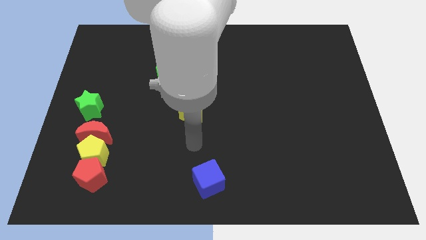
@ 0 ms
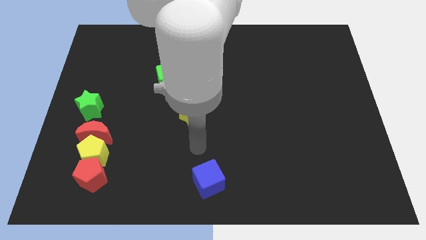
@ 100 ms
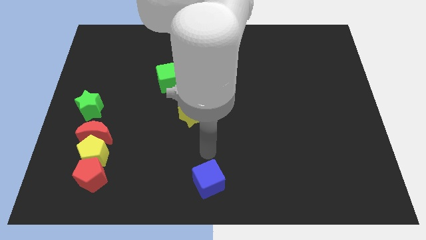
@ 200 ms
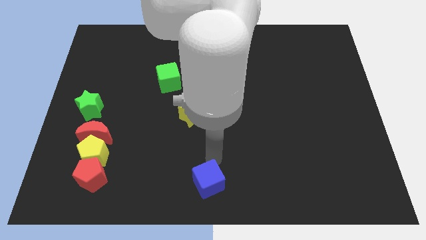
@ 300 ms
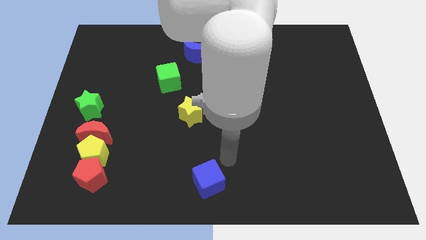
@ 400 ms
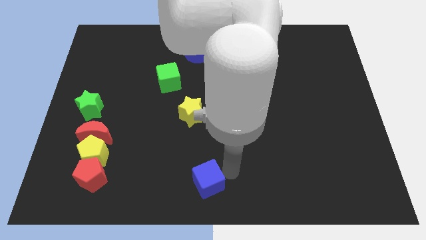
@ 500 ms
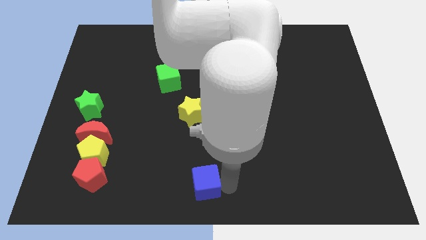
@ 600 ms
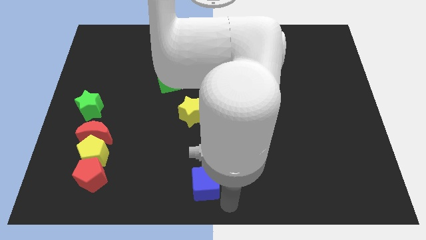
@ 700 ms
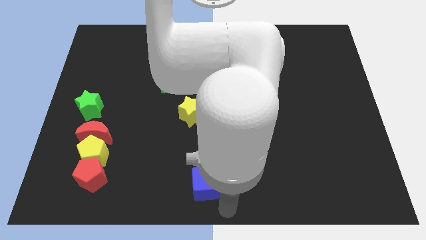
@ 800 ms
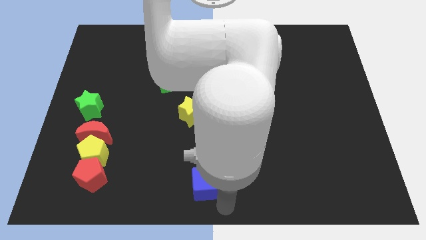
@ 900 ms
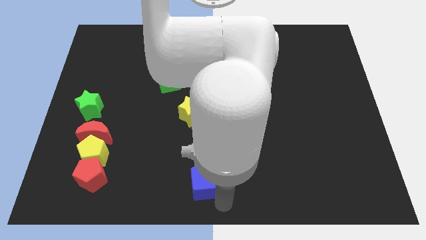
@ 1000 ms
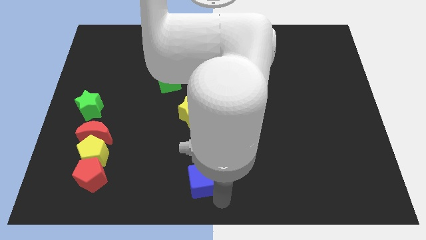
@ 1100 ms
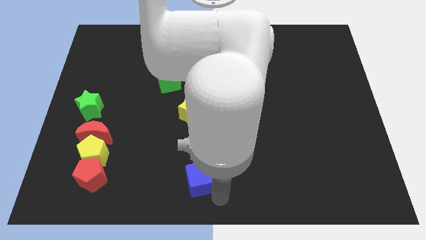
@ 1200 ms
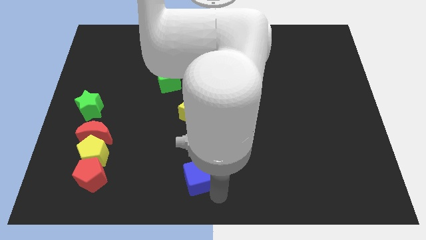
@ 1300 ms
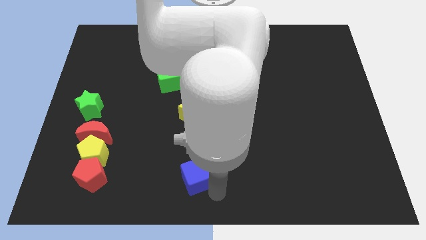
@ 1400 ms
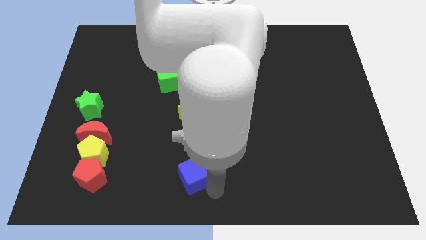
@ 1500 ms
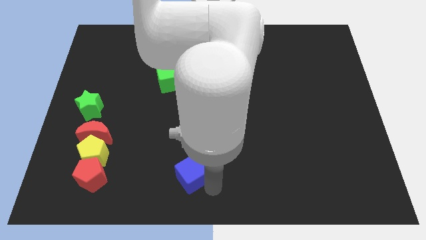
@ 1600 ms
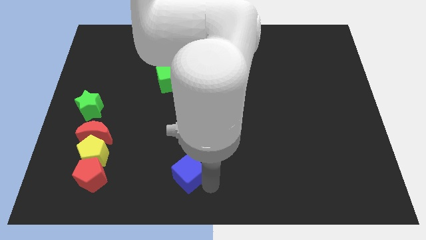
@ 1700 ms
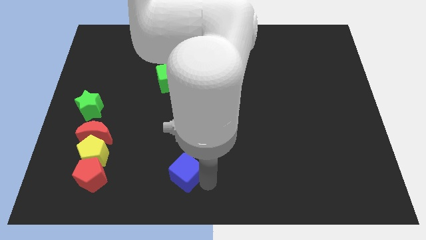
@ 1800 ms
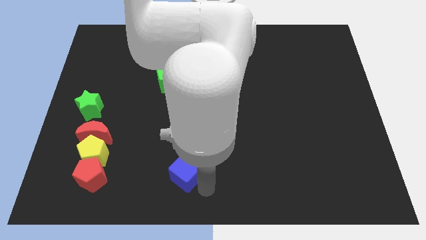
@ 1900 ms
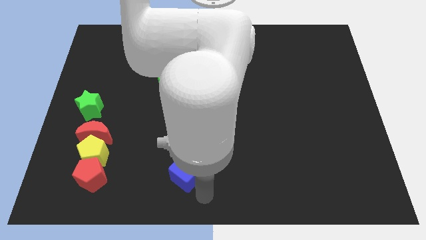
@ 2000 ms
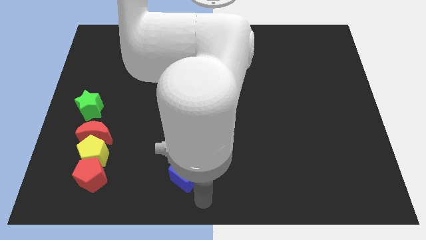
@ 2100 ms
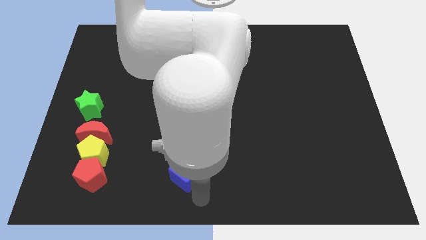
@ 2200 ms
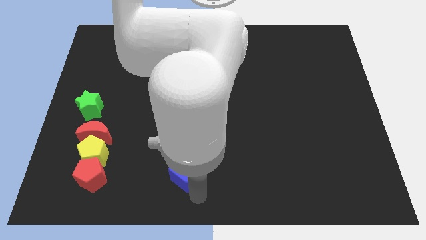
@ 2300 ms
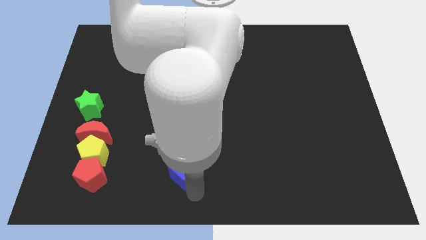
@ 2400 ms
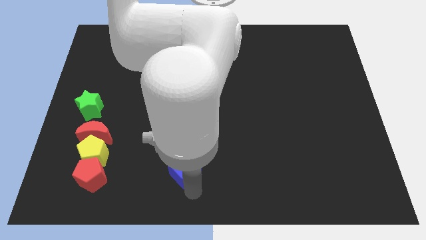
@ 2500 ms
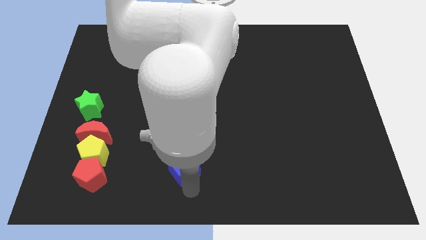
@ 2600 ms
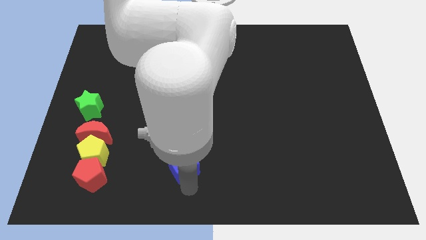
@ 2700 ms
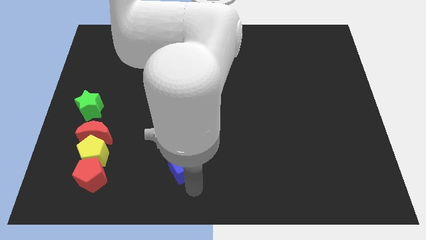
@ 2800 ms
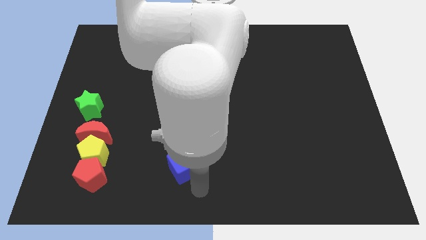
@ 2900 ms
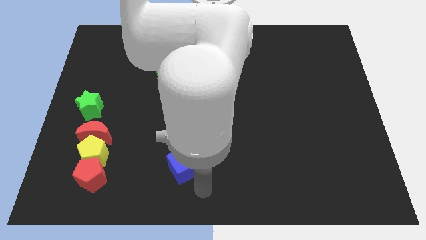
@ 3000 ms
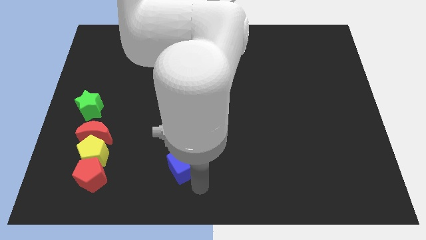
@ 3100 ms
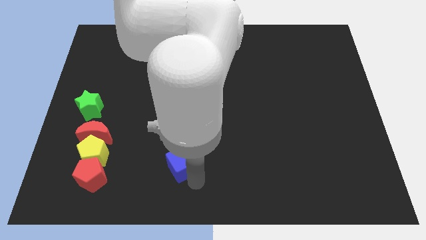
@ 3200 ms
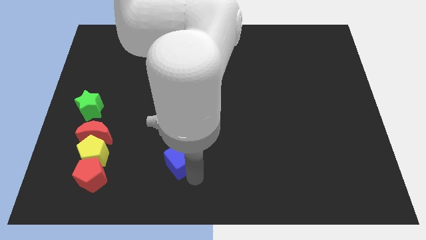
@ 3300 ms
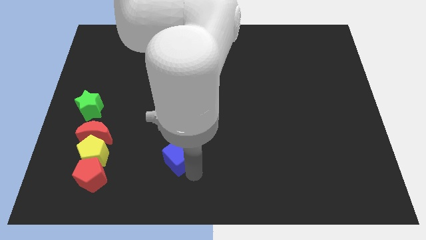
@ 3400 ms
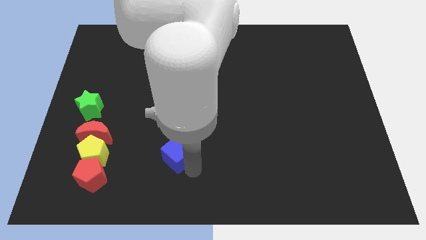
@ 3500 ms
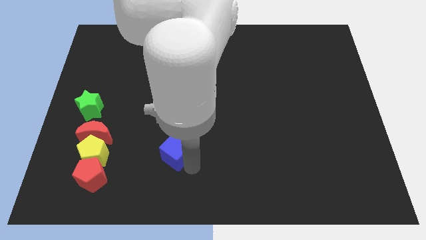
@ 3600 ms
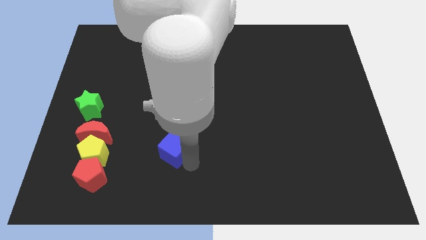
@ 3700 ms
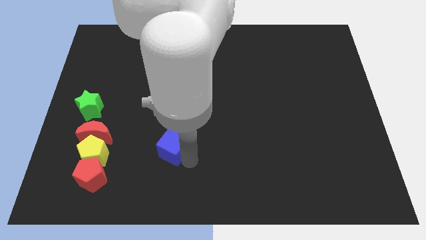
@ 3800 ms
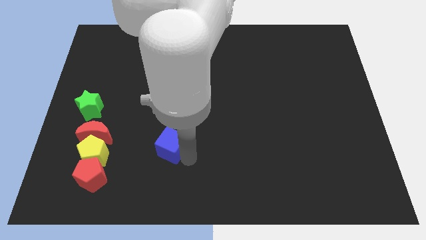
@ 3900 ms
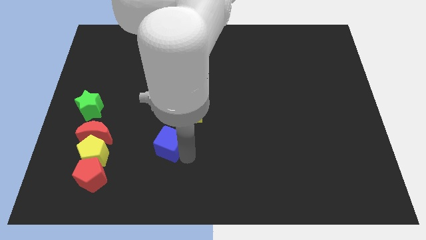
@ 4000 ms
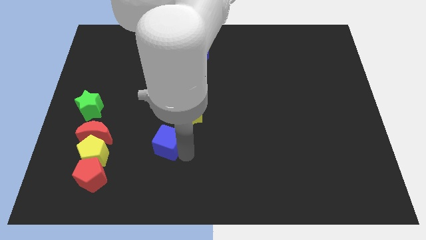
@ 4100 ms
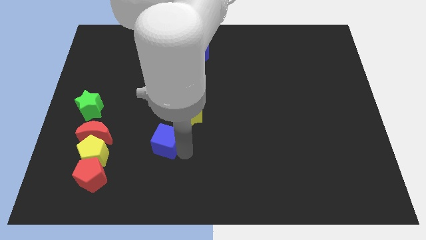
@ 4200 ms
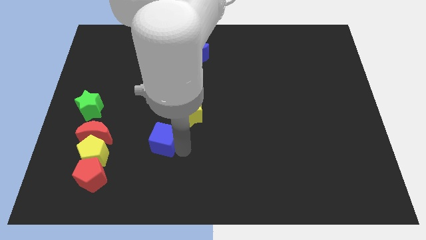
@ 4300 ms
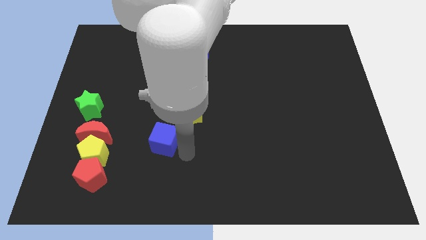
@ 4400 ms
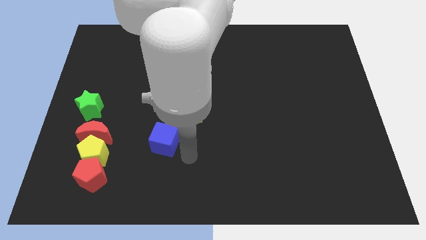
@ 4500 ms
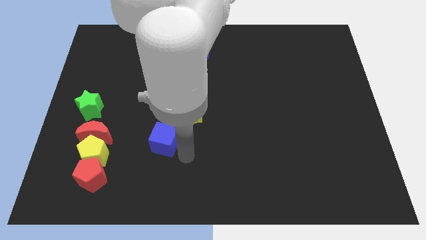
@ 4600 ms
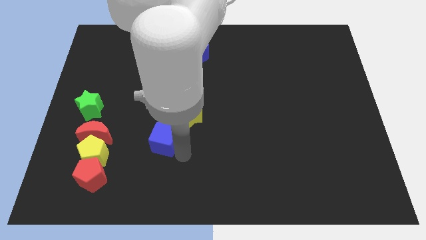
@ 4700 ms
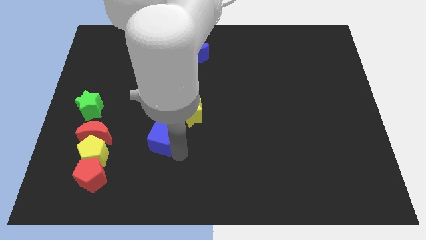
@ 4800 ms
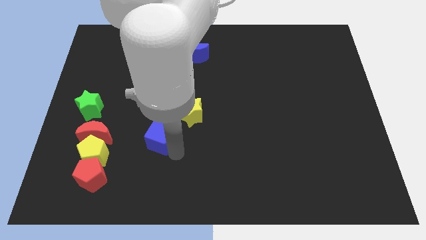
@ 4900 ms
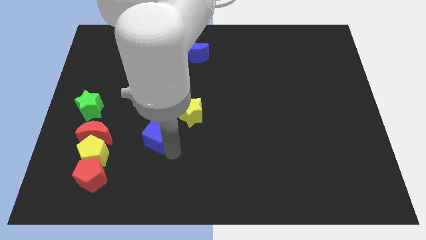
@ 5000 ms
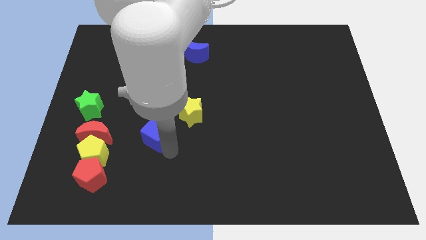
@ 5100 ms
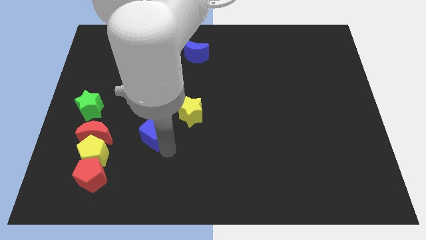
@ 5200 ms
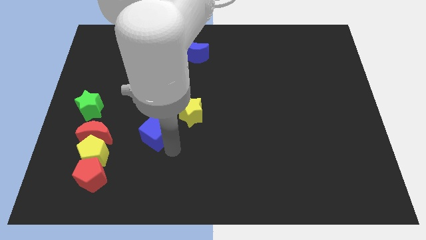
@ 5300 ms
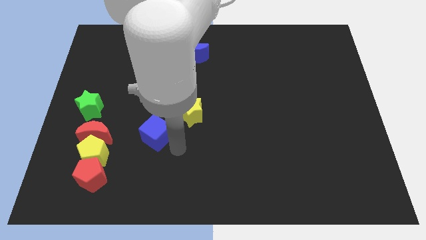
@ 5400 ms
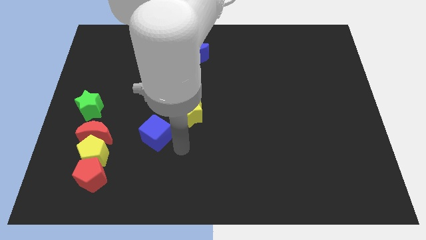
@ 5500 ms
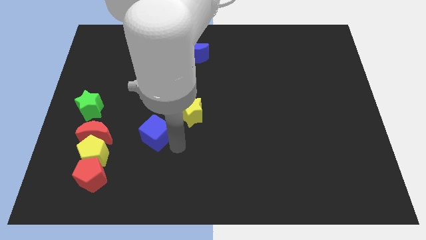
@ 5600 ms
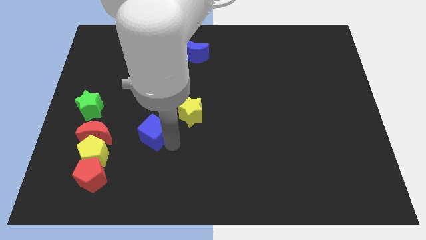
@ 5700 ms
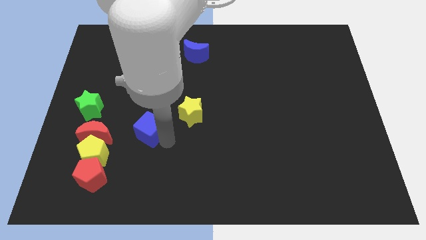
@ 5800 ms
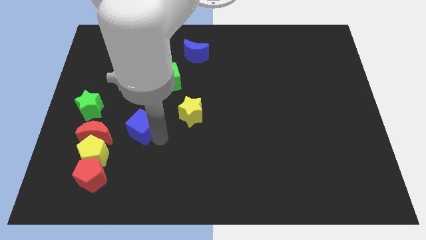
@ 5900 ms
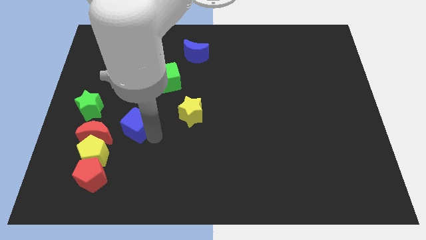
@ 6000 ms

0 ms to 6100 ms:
move the blue cube up and then to the left

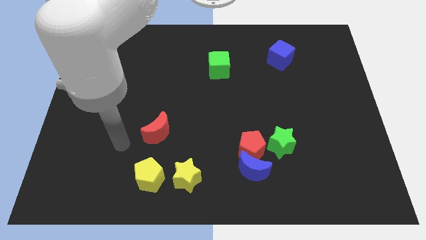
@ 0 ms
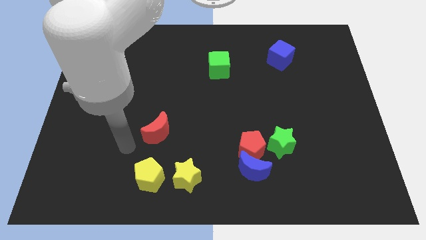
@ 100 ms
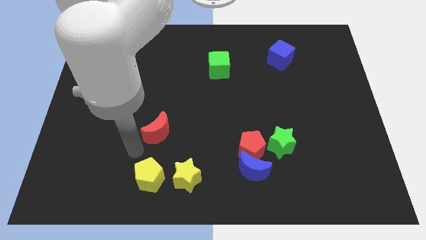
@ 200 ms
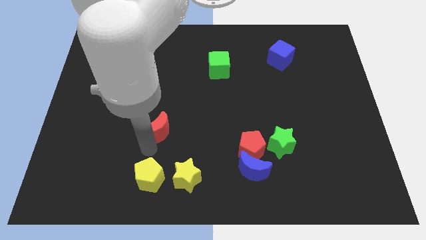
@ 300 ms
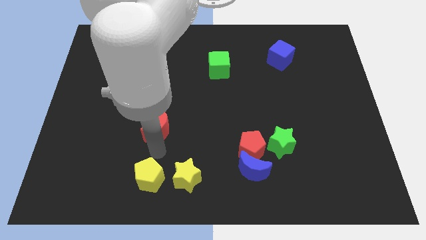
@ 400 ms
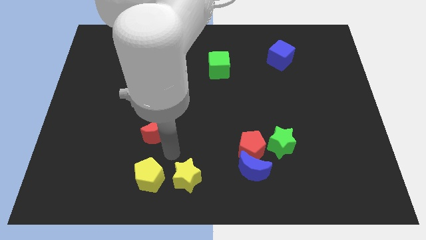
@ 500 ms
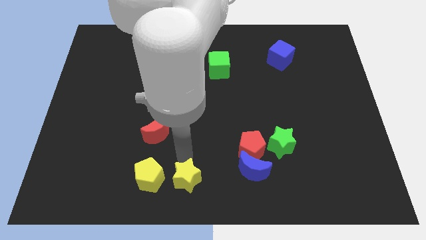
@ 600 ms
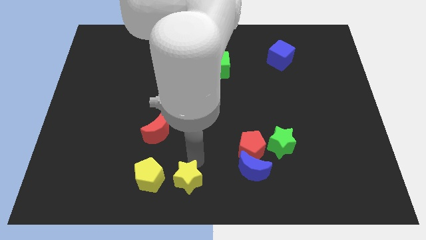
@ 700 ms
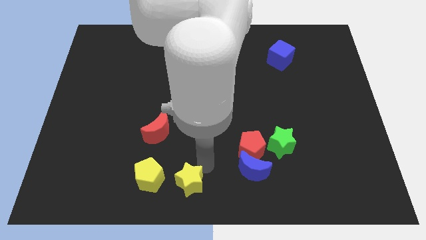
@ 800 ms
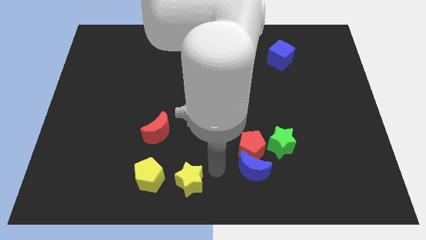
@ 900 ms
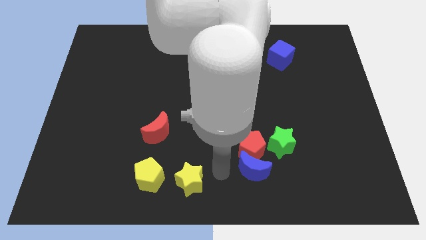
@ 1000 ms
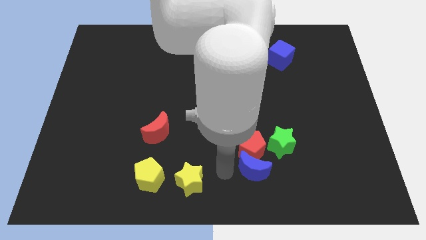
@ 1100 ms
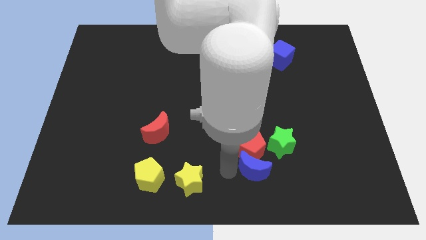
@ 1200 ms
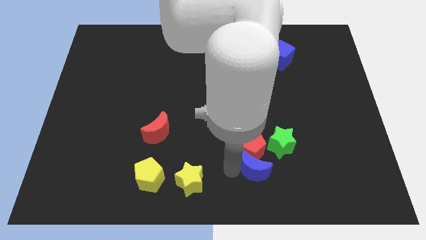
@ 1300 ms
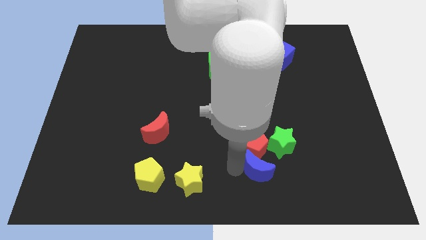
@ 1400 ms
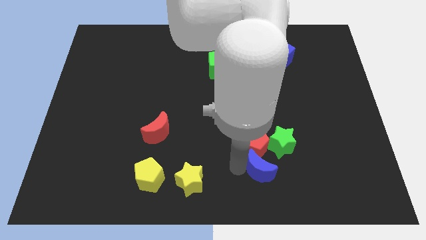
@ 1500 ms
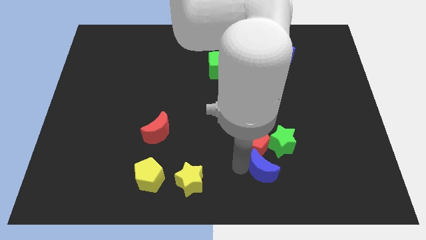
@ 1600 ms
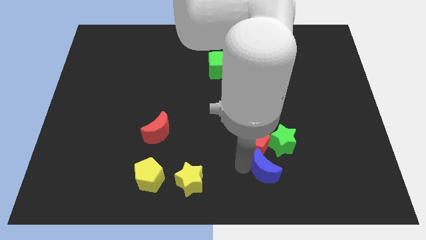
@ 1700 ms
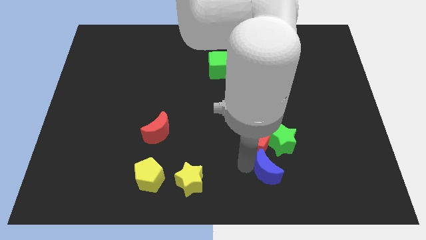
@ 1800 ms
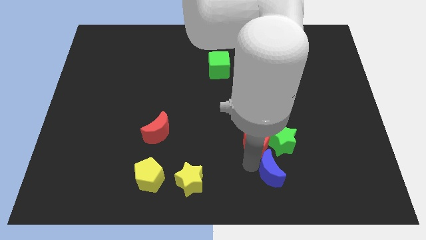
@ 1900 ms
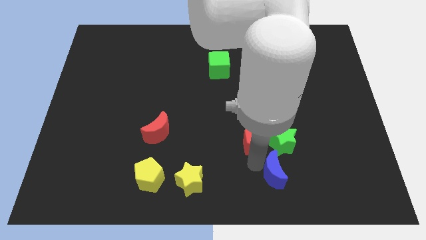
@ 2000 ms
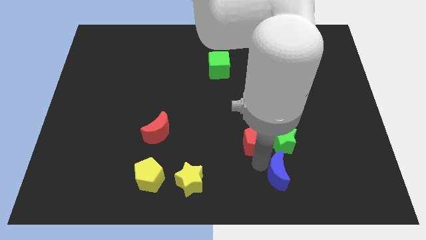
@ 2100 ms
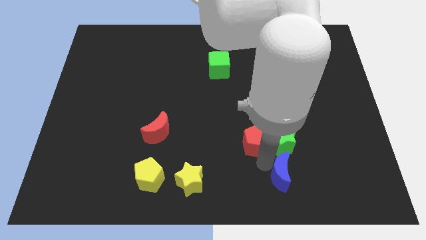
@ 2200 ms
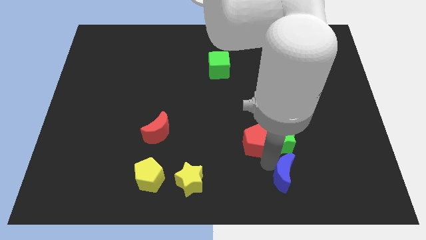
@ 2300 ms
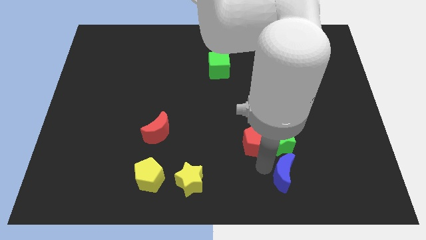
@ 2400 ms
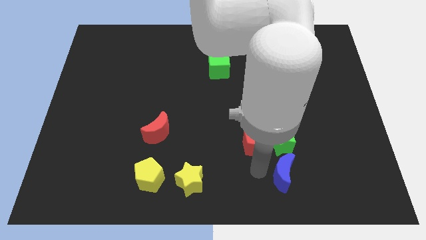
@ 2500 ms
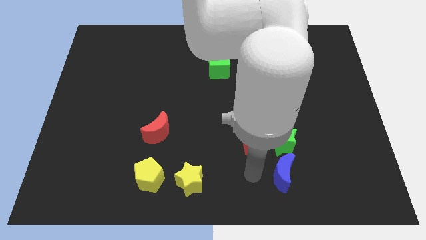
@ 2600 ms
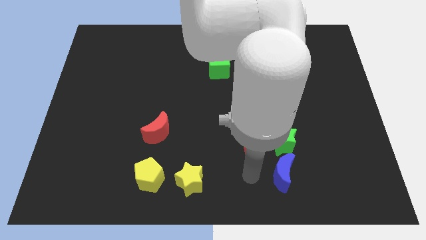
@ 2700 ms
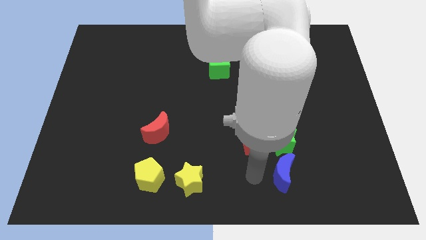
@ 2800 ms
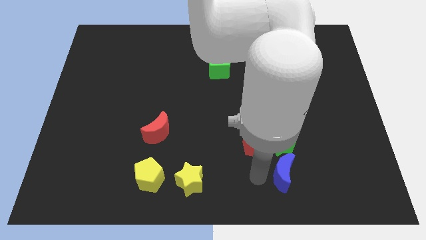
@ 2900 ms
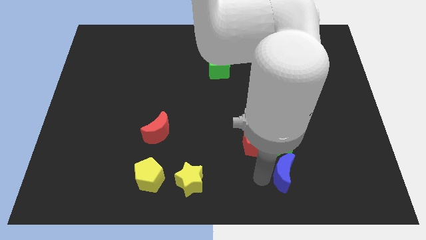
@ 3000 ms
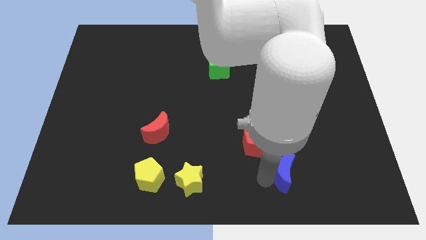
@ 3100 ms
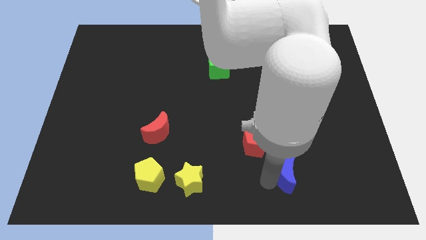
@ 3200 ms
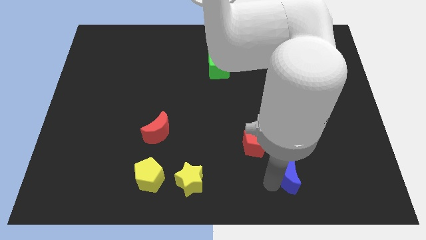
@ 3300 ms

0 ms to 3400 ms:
slightly slide the blue moon to the right
